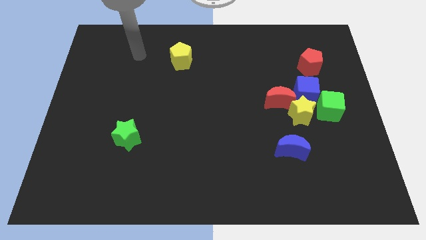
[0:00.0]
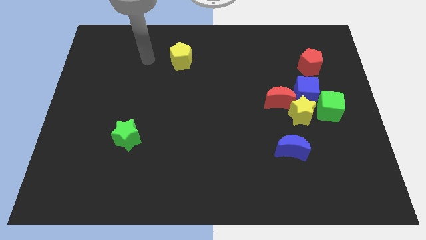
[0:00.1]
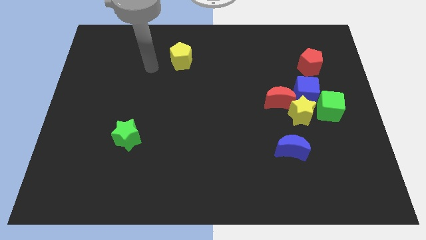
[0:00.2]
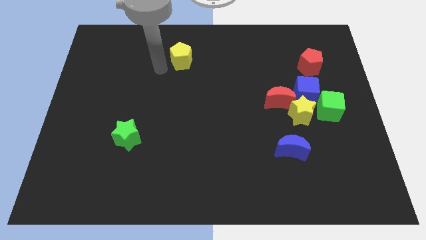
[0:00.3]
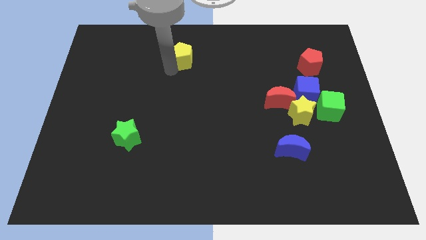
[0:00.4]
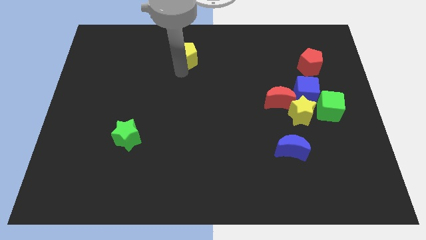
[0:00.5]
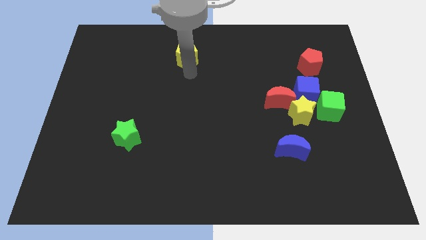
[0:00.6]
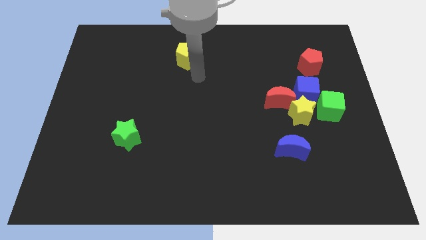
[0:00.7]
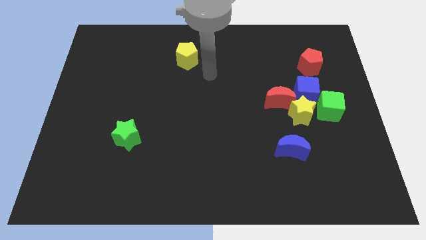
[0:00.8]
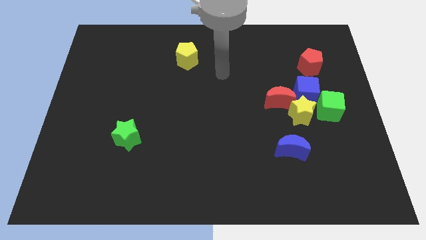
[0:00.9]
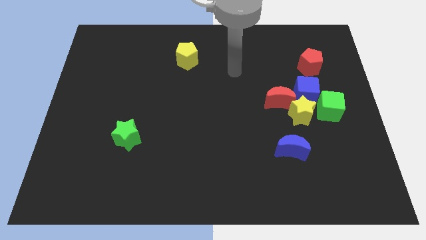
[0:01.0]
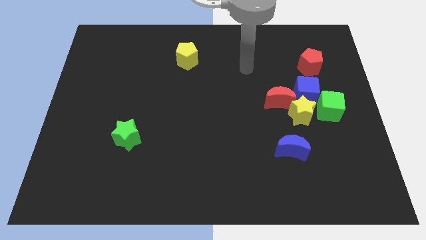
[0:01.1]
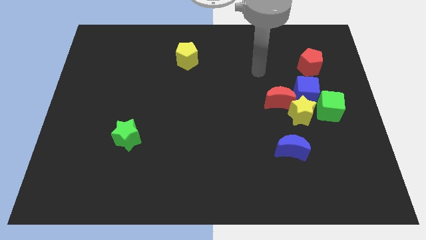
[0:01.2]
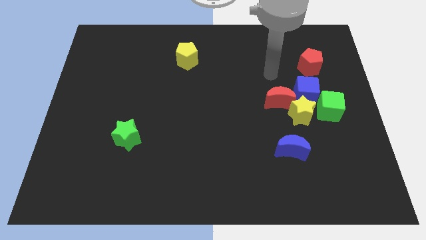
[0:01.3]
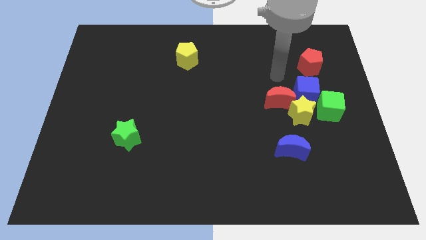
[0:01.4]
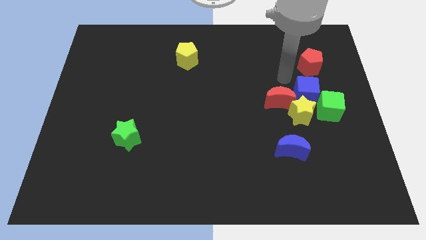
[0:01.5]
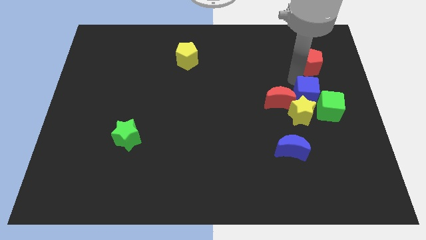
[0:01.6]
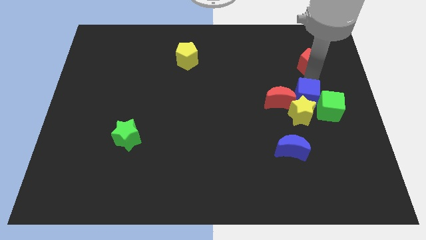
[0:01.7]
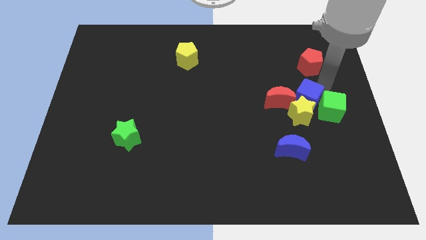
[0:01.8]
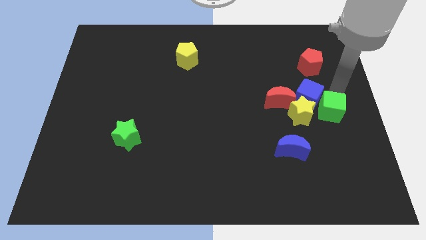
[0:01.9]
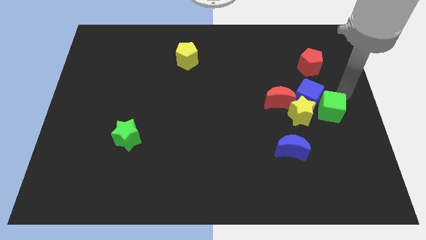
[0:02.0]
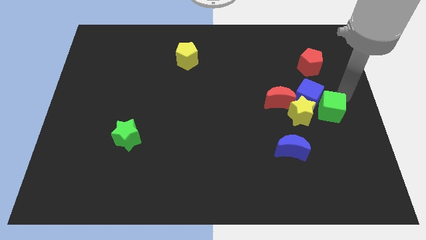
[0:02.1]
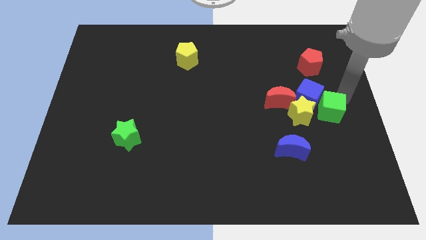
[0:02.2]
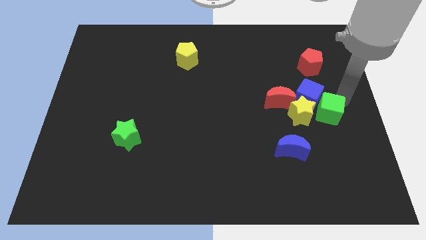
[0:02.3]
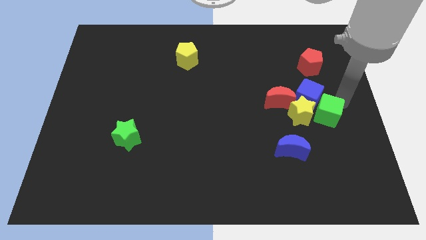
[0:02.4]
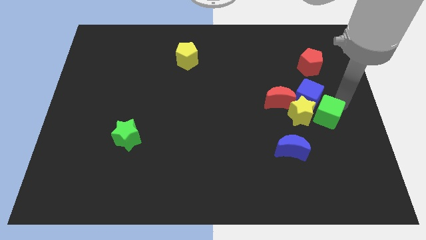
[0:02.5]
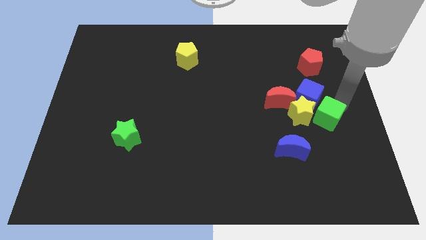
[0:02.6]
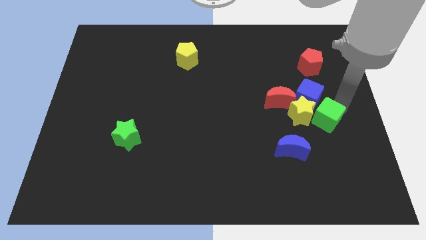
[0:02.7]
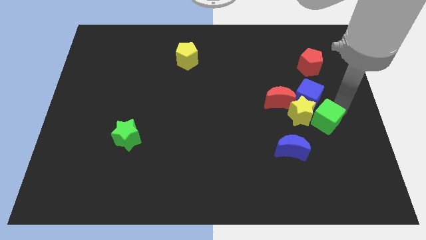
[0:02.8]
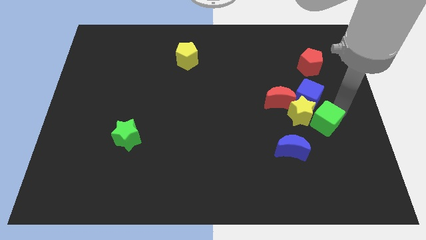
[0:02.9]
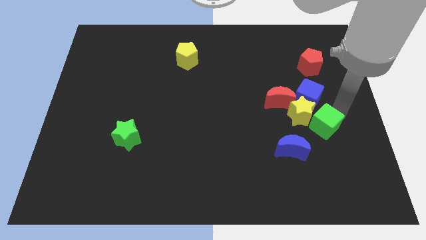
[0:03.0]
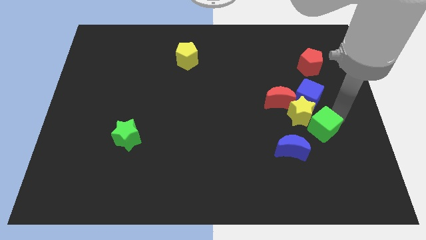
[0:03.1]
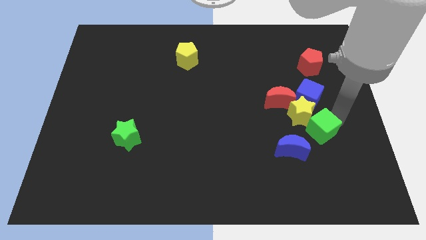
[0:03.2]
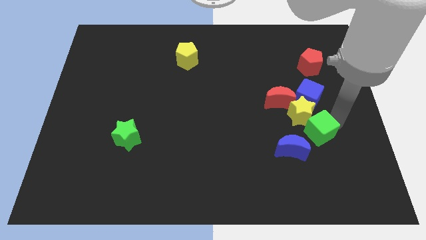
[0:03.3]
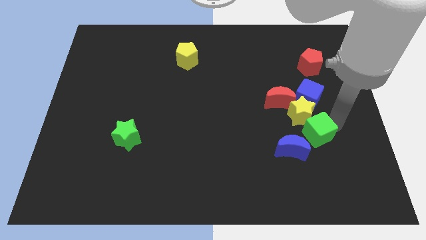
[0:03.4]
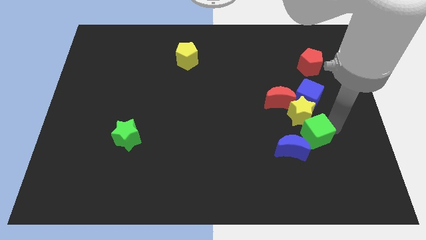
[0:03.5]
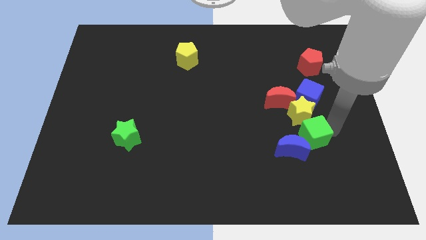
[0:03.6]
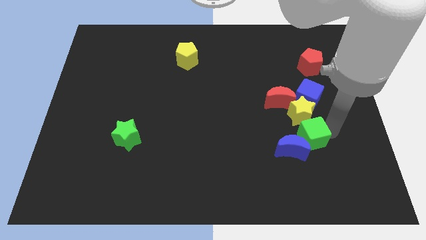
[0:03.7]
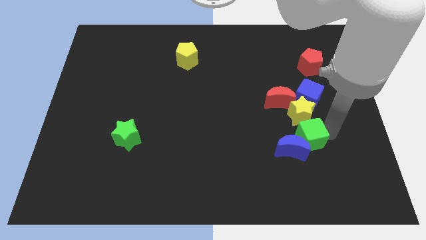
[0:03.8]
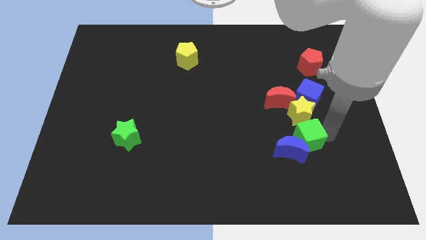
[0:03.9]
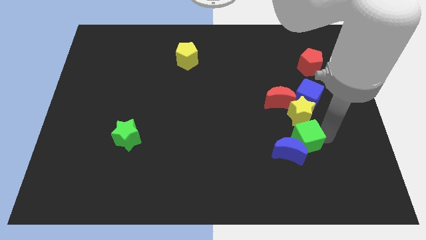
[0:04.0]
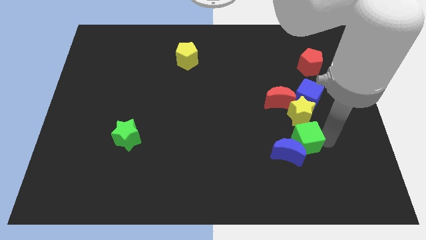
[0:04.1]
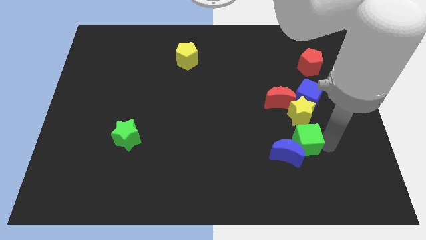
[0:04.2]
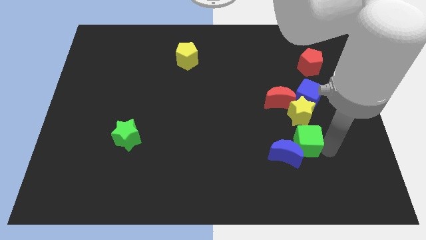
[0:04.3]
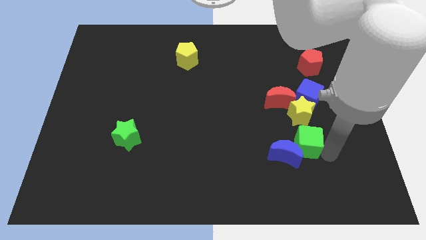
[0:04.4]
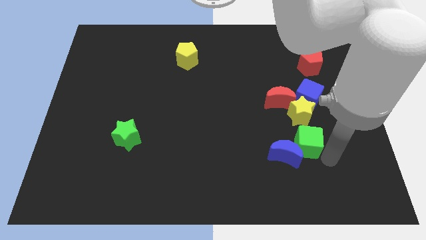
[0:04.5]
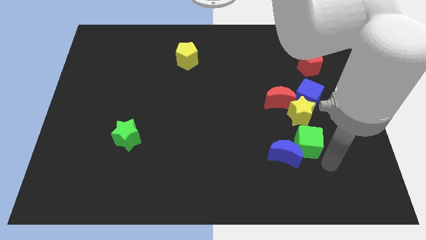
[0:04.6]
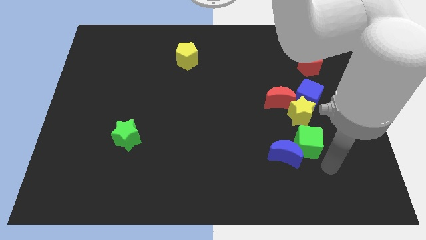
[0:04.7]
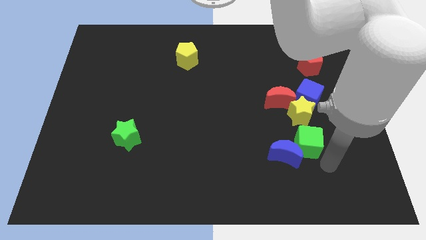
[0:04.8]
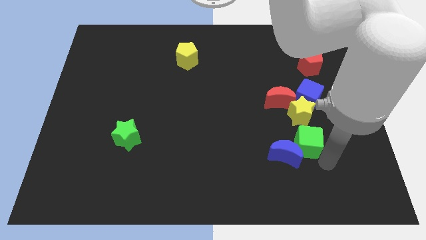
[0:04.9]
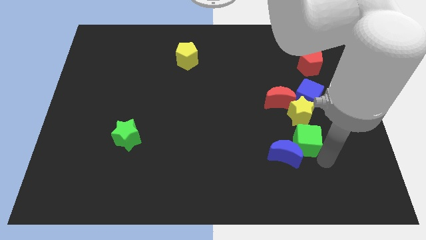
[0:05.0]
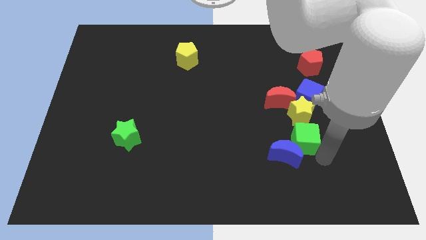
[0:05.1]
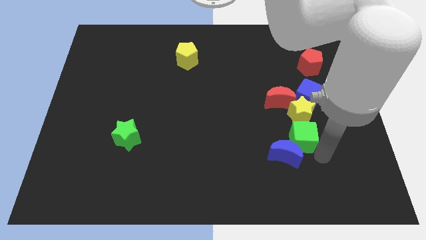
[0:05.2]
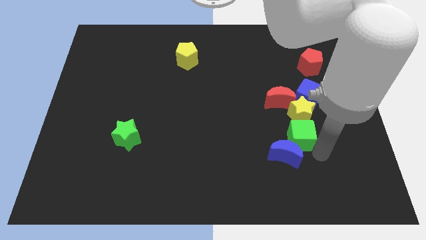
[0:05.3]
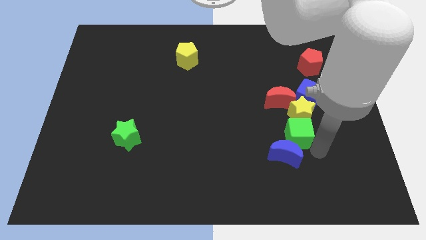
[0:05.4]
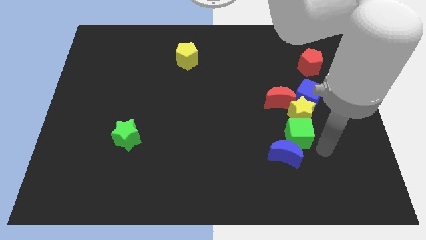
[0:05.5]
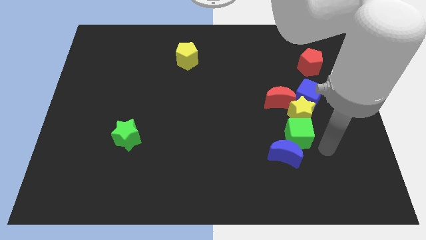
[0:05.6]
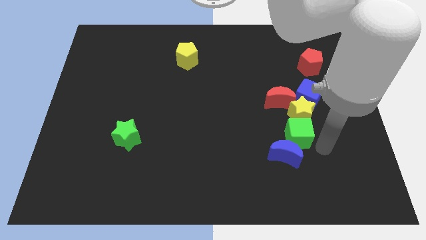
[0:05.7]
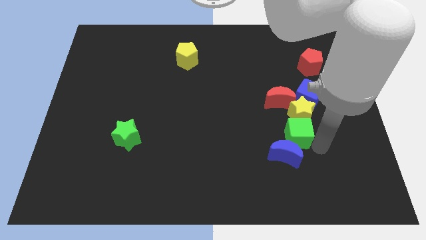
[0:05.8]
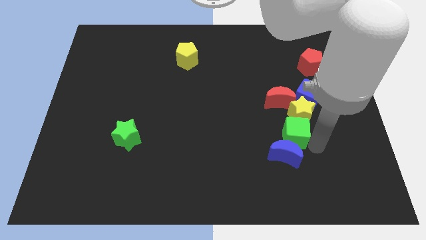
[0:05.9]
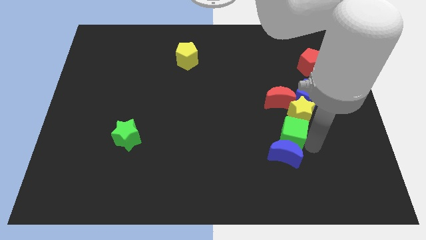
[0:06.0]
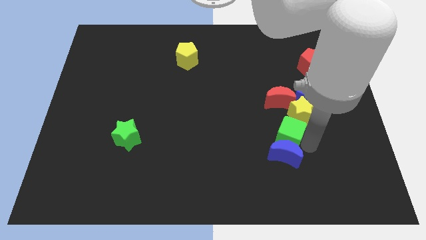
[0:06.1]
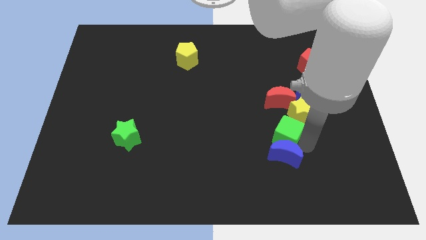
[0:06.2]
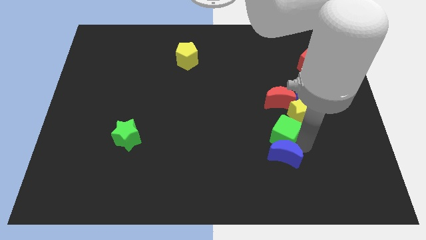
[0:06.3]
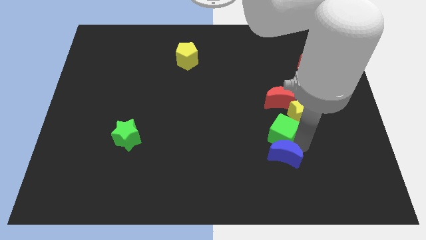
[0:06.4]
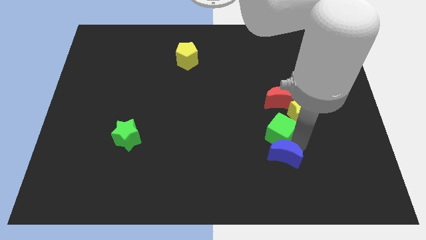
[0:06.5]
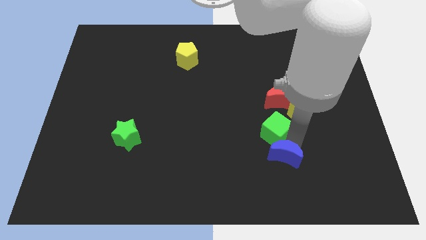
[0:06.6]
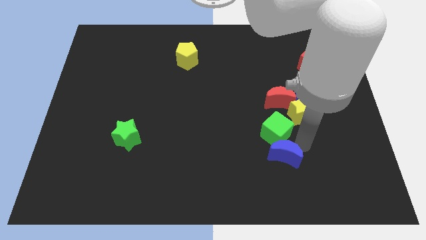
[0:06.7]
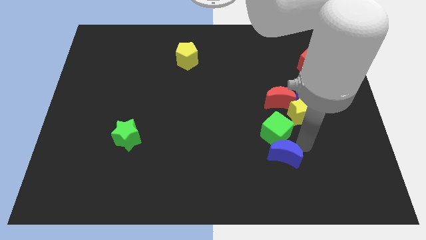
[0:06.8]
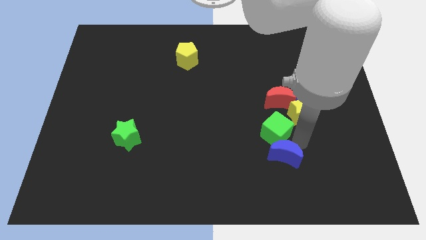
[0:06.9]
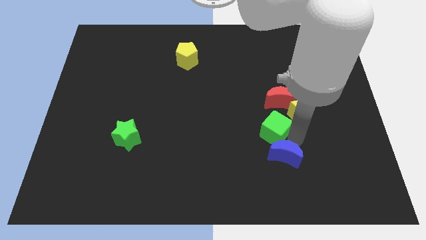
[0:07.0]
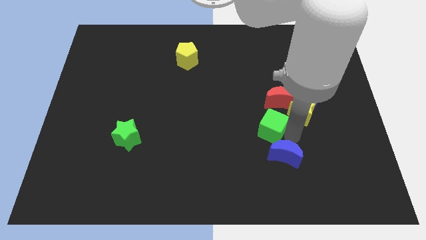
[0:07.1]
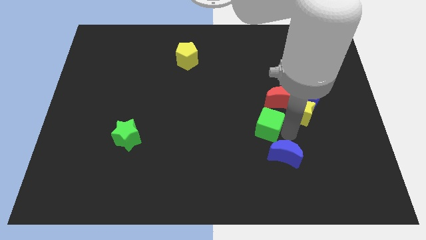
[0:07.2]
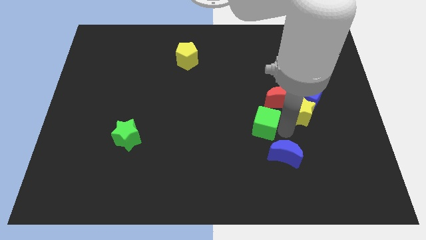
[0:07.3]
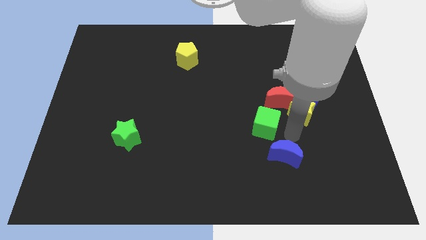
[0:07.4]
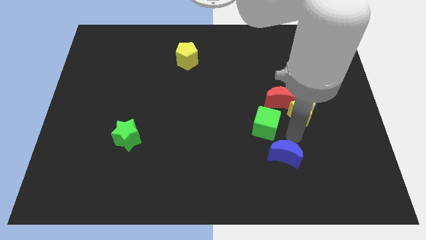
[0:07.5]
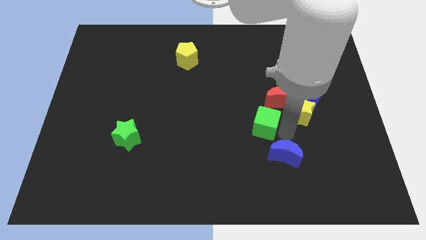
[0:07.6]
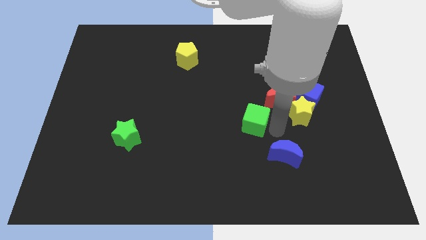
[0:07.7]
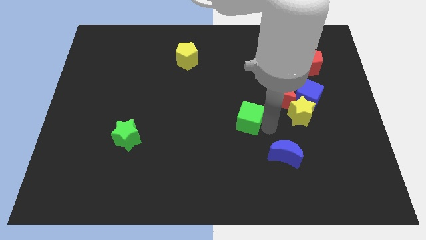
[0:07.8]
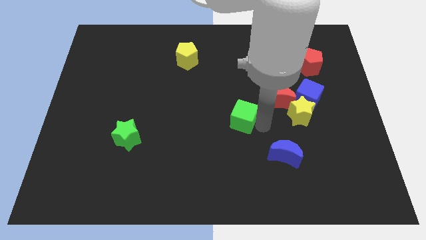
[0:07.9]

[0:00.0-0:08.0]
slide the green cube left

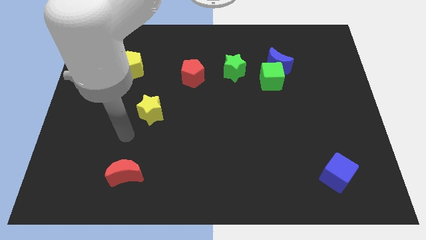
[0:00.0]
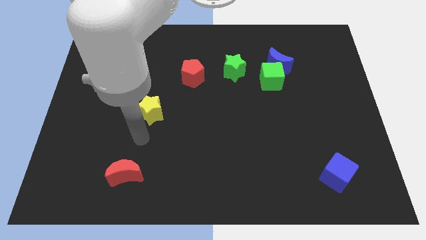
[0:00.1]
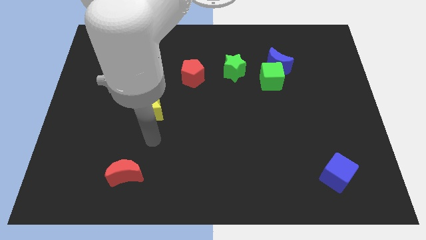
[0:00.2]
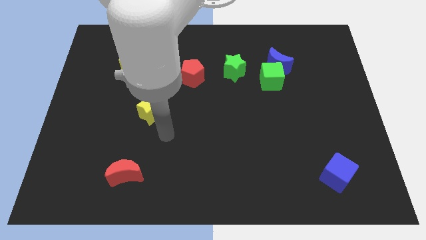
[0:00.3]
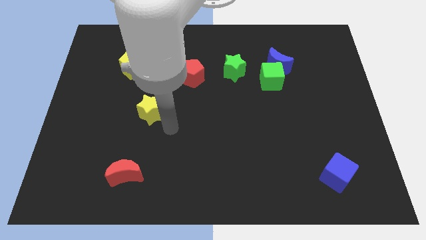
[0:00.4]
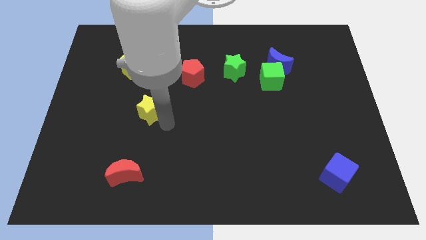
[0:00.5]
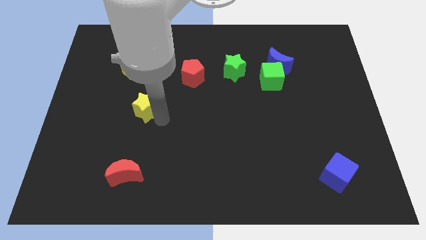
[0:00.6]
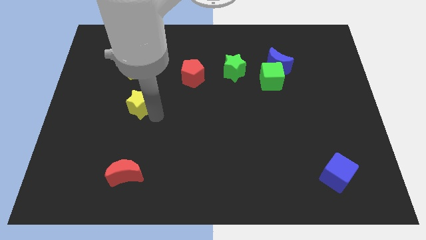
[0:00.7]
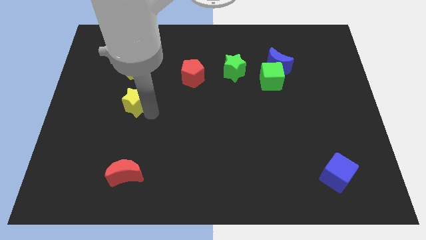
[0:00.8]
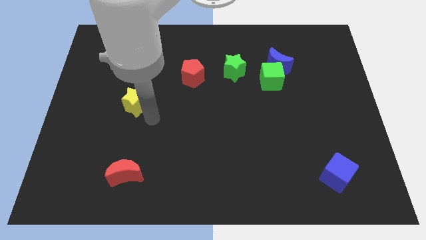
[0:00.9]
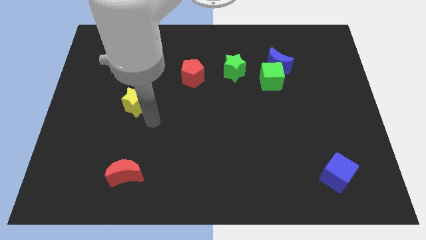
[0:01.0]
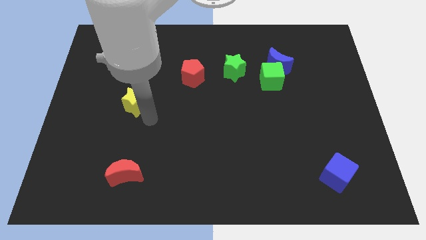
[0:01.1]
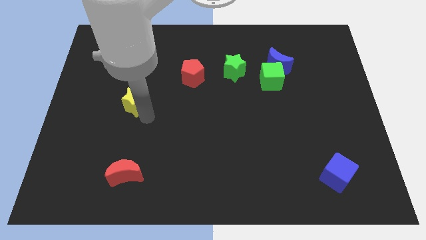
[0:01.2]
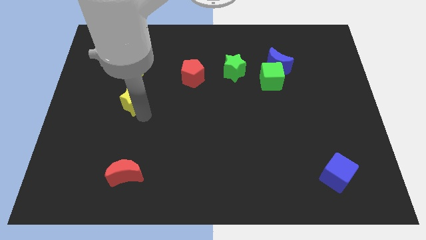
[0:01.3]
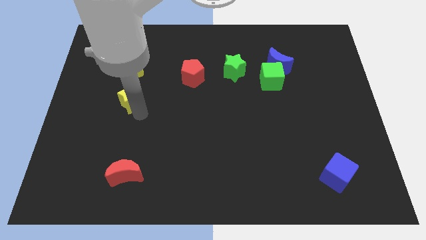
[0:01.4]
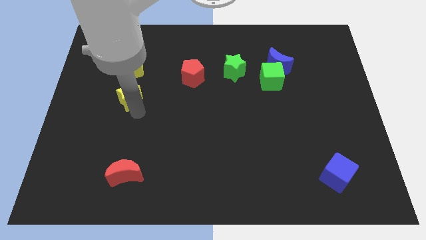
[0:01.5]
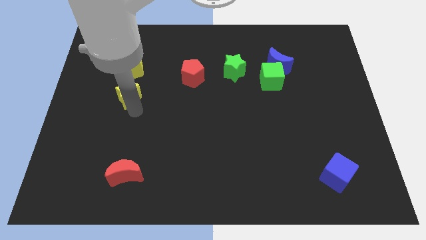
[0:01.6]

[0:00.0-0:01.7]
push the yellow star somewhat upwards and then left
